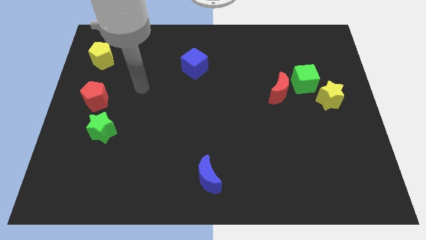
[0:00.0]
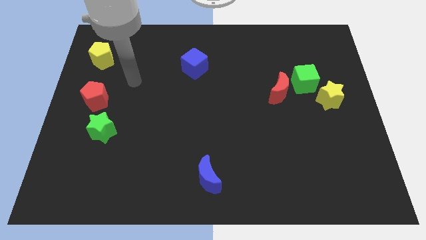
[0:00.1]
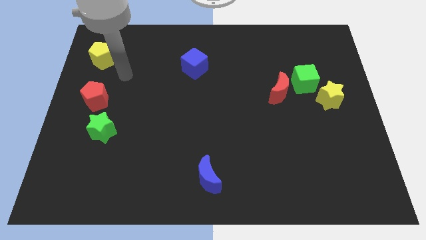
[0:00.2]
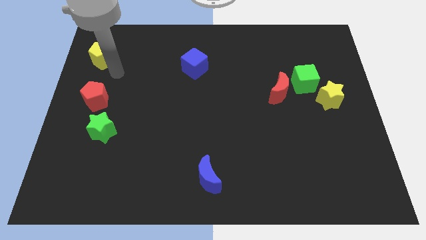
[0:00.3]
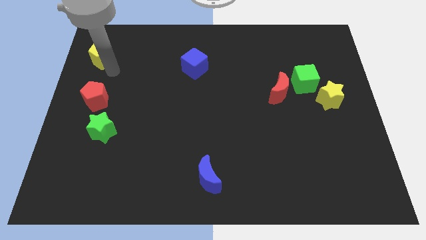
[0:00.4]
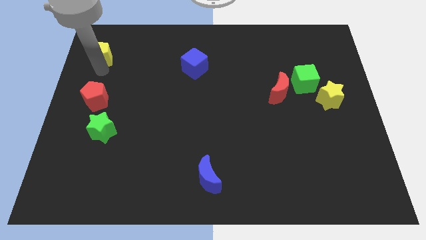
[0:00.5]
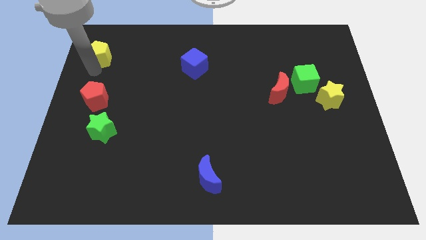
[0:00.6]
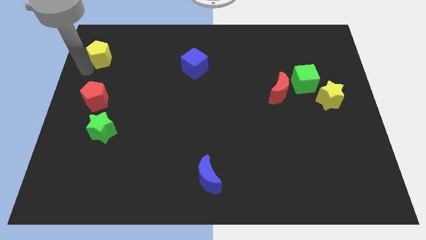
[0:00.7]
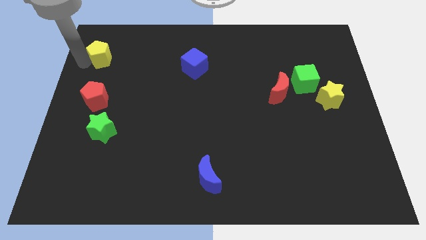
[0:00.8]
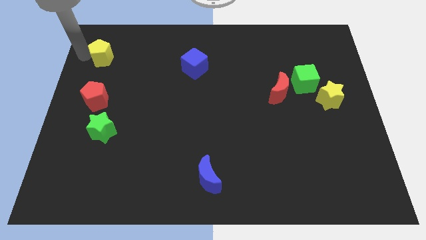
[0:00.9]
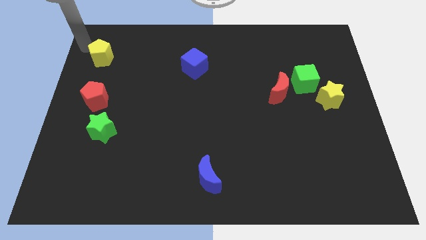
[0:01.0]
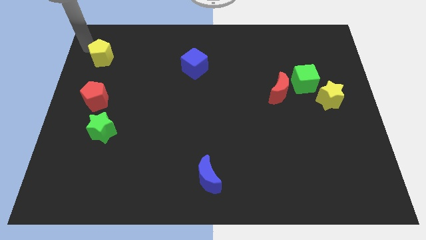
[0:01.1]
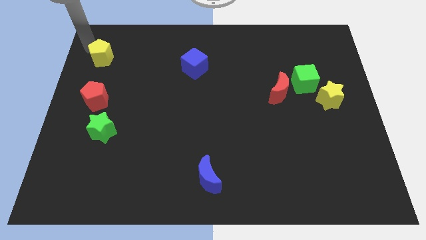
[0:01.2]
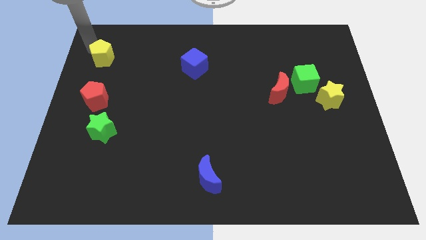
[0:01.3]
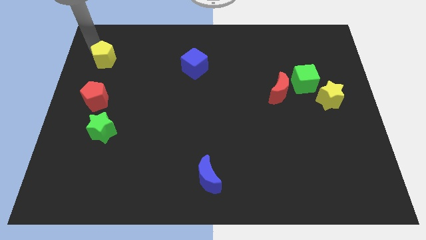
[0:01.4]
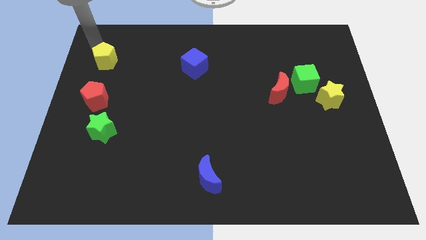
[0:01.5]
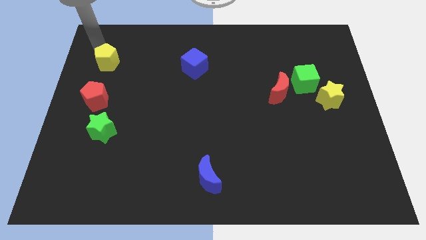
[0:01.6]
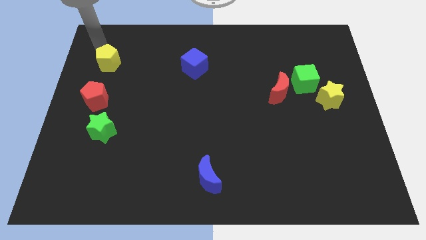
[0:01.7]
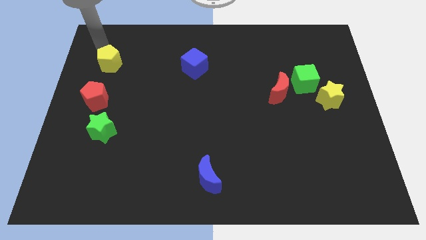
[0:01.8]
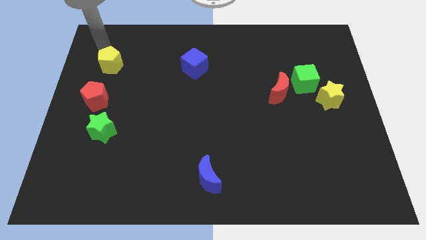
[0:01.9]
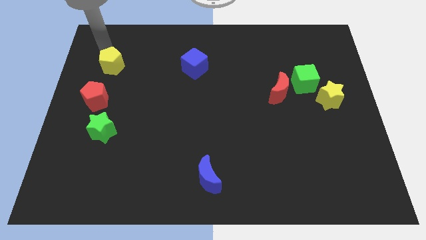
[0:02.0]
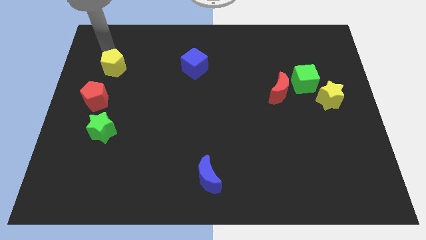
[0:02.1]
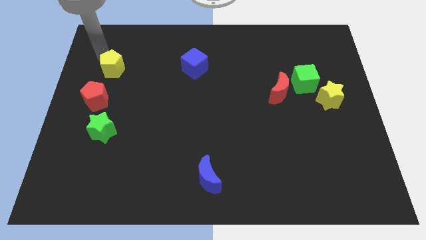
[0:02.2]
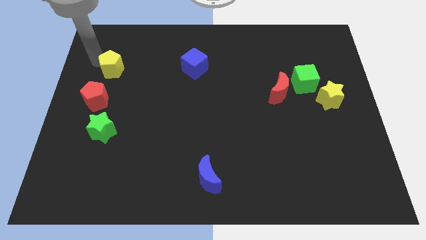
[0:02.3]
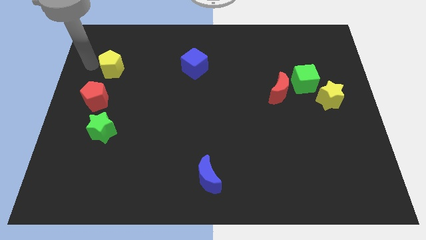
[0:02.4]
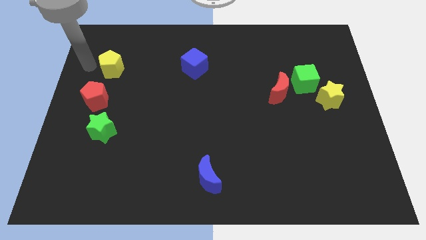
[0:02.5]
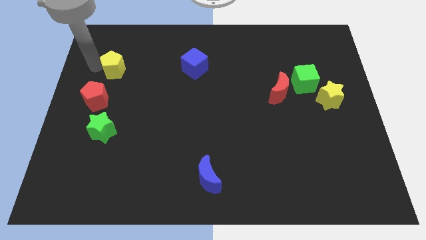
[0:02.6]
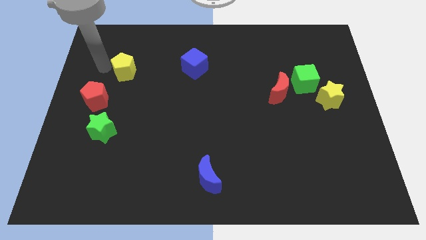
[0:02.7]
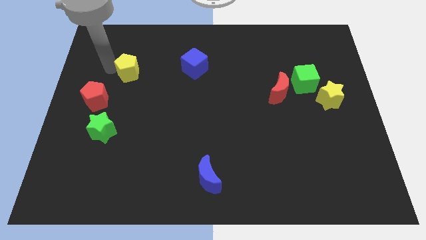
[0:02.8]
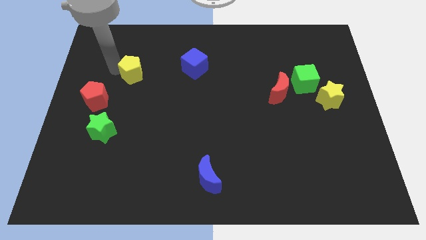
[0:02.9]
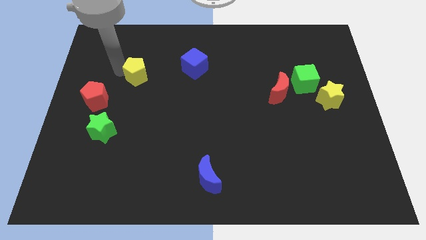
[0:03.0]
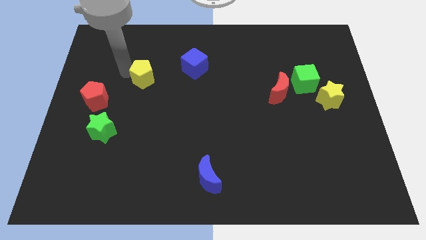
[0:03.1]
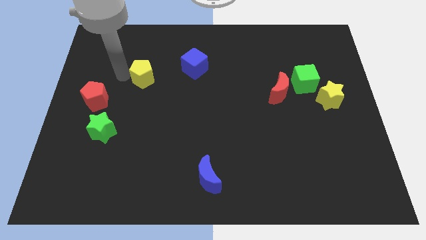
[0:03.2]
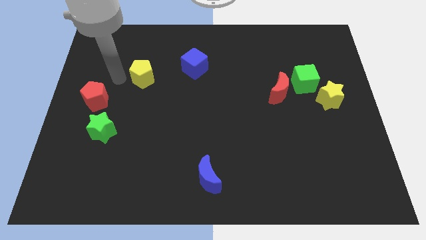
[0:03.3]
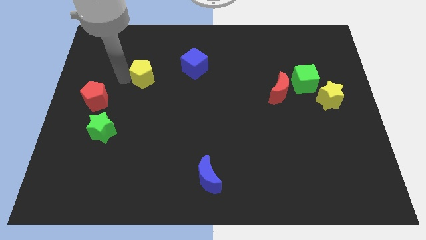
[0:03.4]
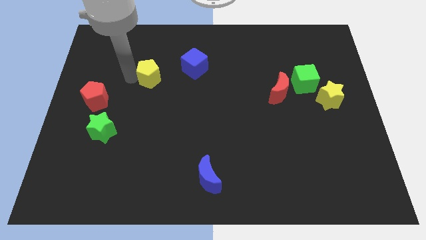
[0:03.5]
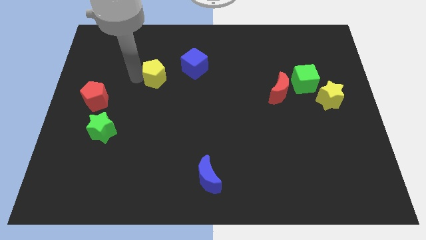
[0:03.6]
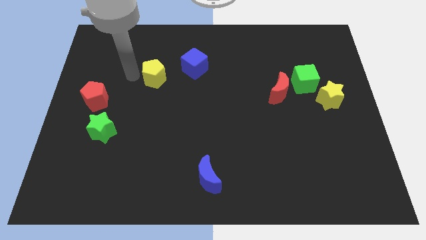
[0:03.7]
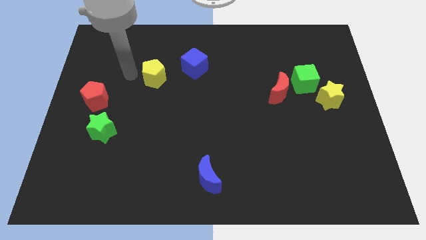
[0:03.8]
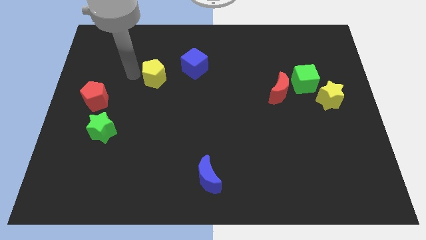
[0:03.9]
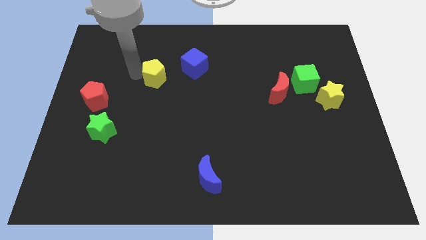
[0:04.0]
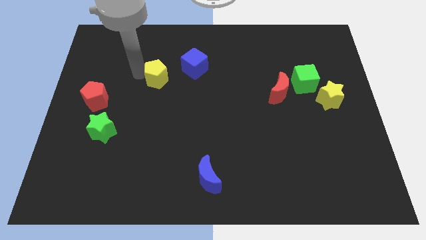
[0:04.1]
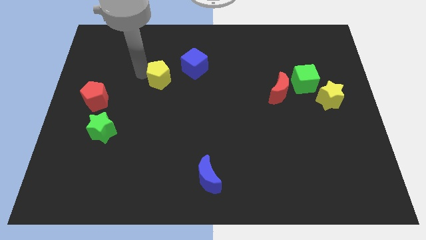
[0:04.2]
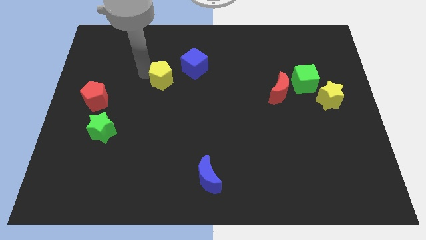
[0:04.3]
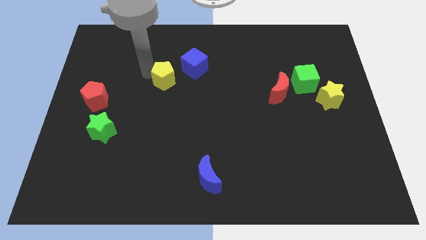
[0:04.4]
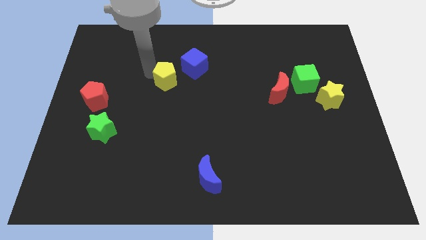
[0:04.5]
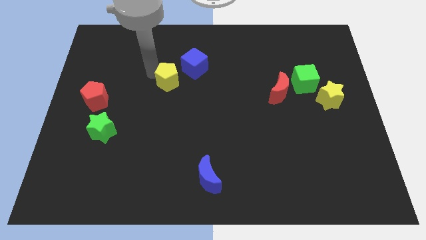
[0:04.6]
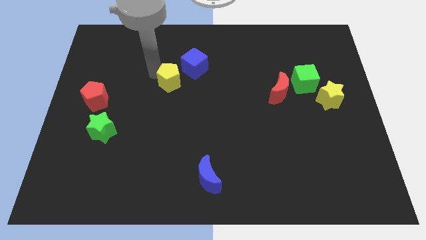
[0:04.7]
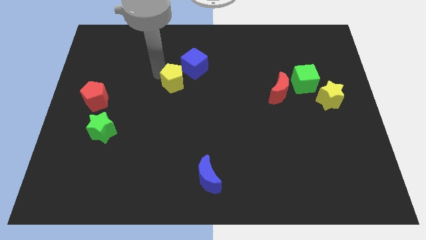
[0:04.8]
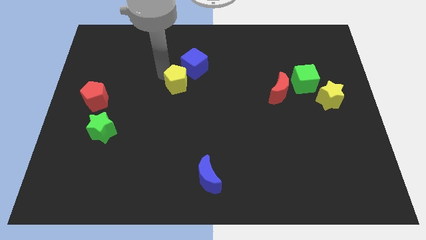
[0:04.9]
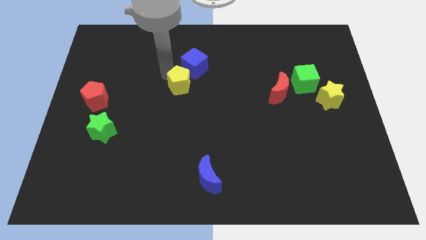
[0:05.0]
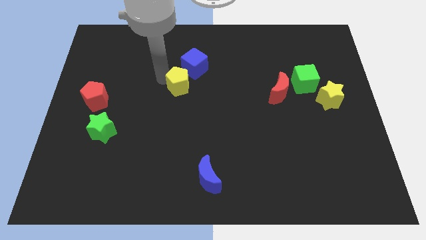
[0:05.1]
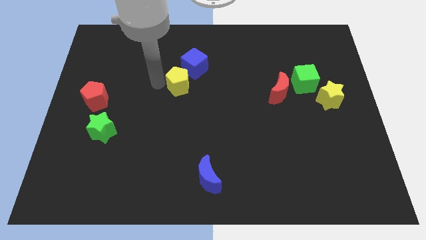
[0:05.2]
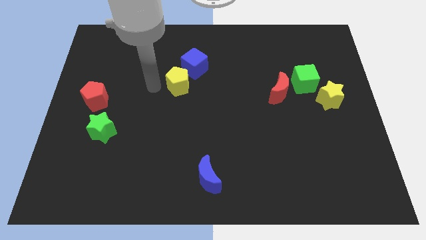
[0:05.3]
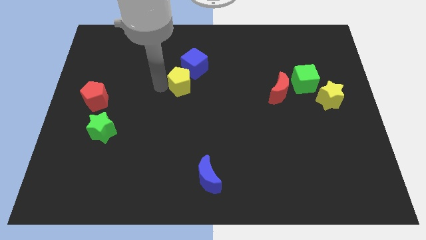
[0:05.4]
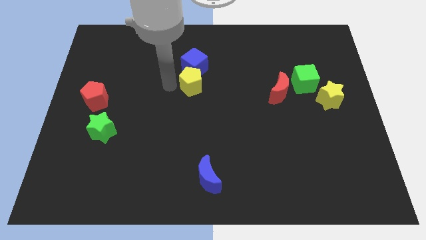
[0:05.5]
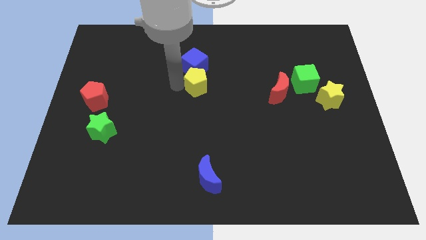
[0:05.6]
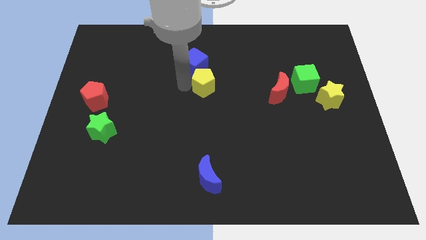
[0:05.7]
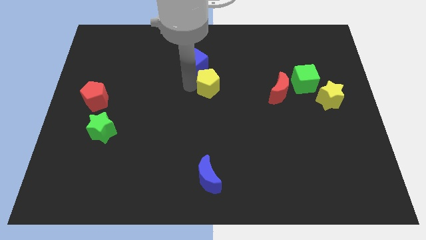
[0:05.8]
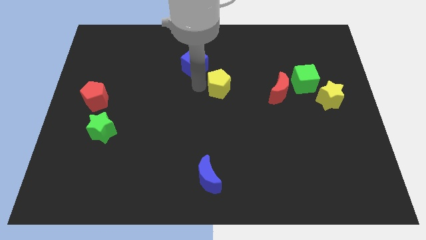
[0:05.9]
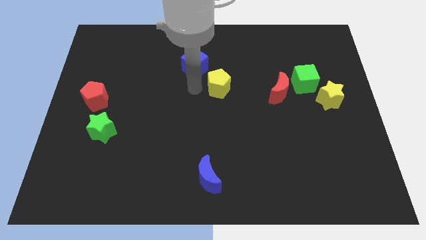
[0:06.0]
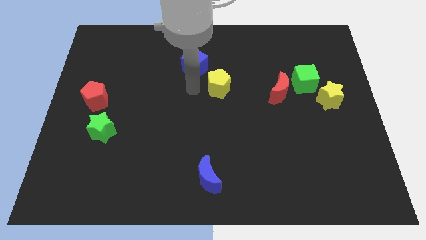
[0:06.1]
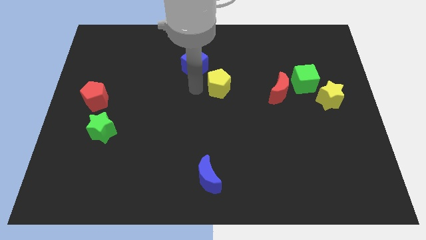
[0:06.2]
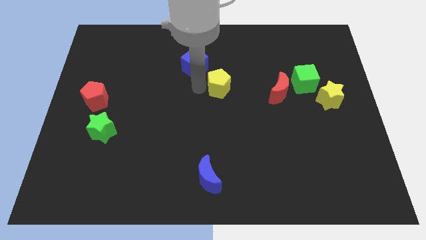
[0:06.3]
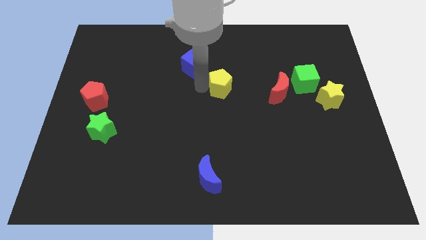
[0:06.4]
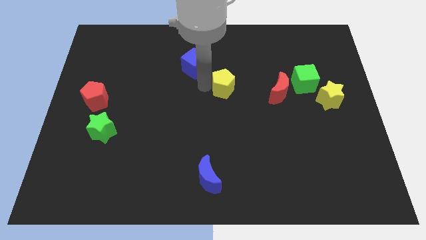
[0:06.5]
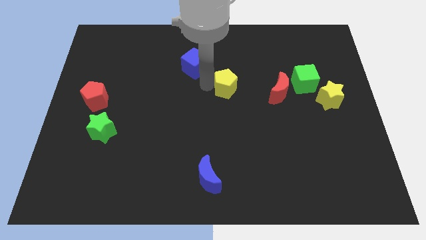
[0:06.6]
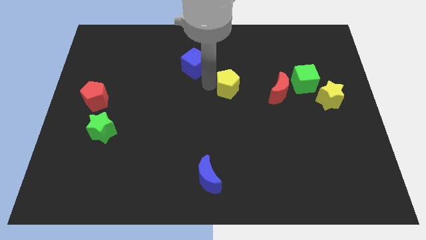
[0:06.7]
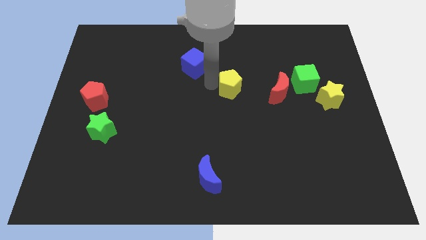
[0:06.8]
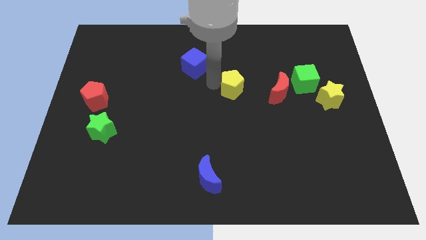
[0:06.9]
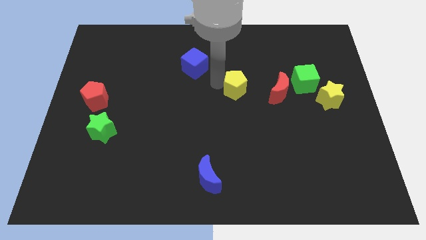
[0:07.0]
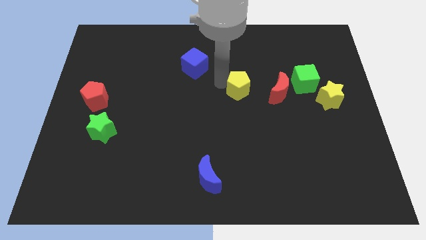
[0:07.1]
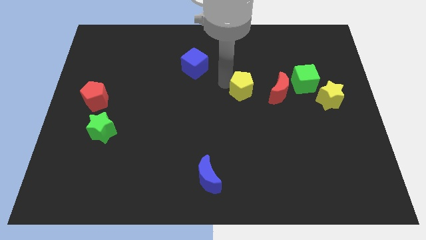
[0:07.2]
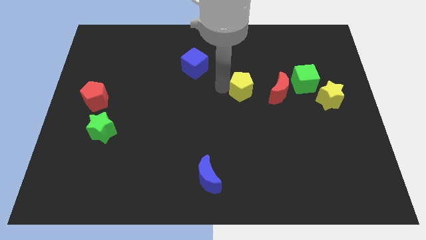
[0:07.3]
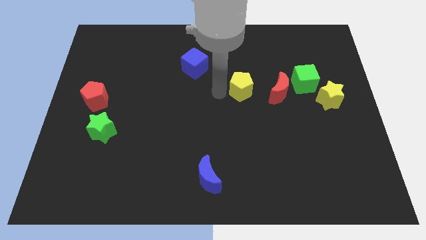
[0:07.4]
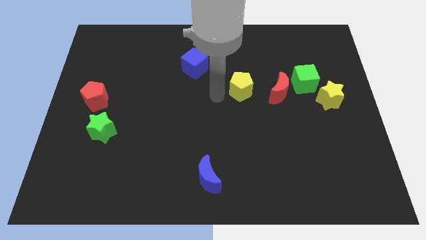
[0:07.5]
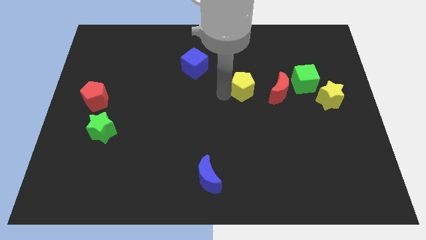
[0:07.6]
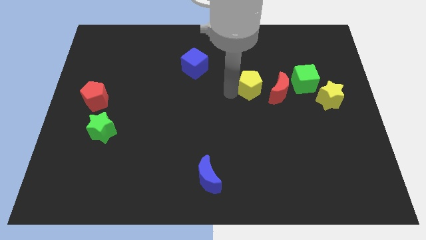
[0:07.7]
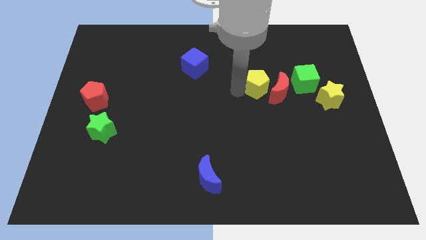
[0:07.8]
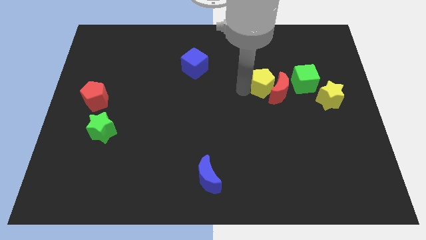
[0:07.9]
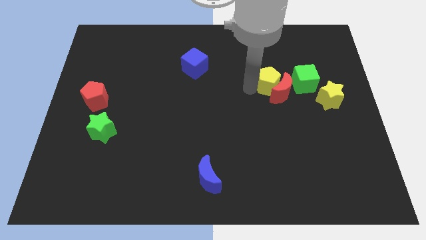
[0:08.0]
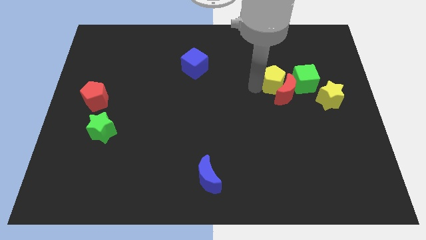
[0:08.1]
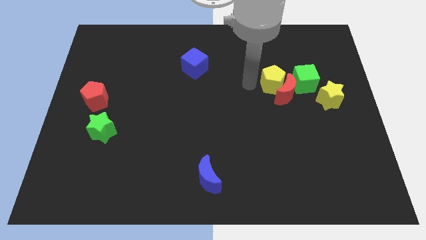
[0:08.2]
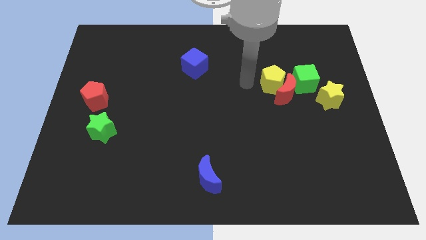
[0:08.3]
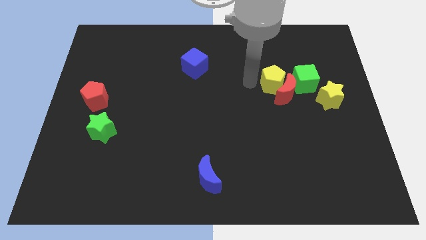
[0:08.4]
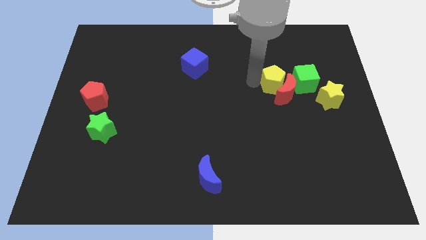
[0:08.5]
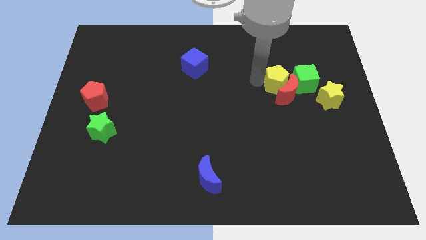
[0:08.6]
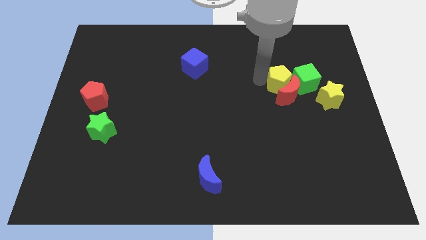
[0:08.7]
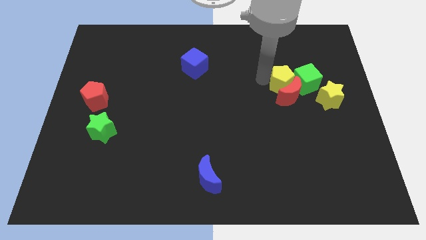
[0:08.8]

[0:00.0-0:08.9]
push the yellow pentagon to the green cube
